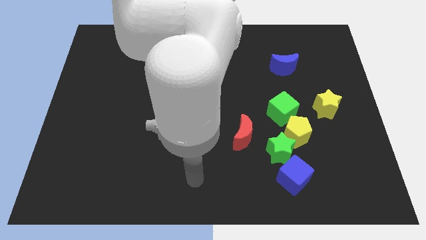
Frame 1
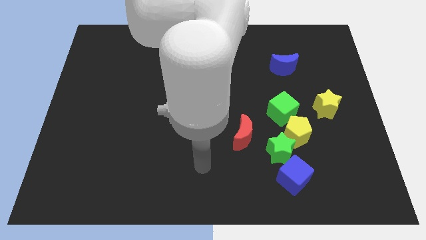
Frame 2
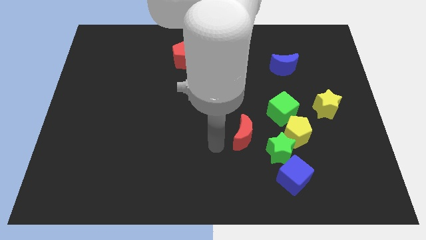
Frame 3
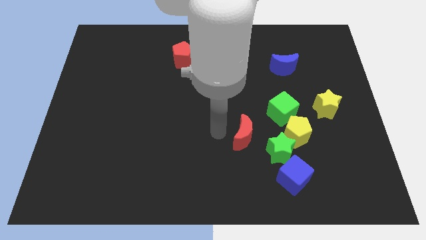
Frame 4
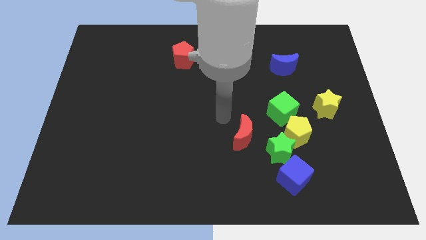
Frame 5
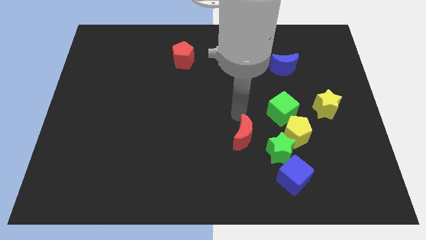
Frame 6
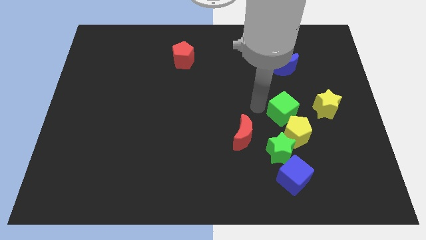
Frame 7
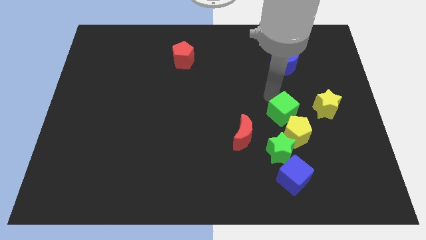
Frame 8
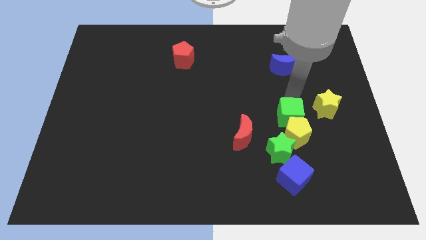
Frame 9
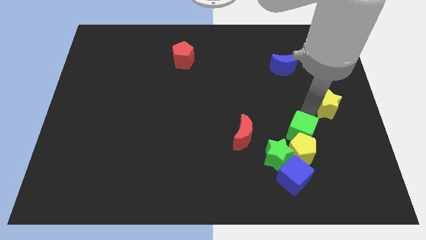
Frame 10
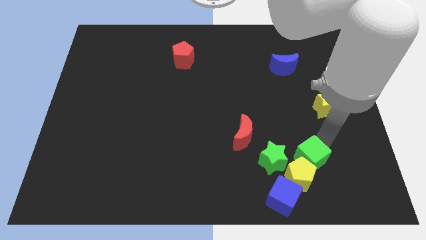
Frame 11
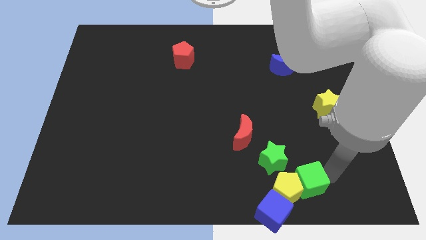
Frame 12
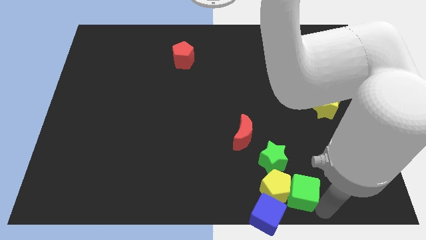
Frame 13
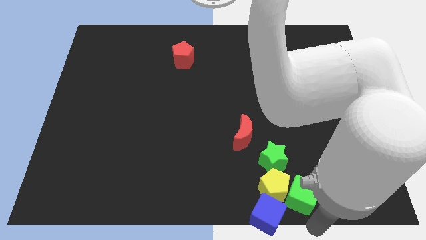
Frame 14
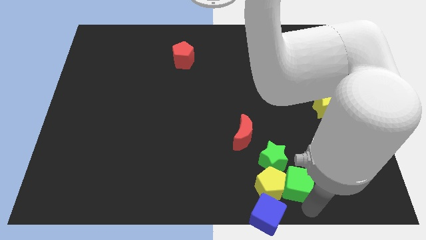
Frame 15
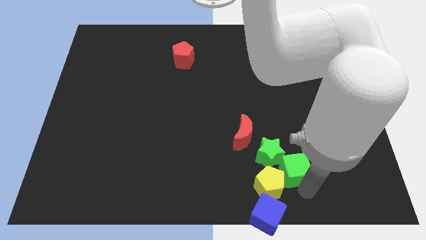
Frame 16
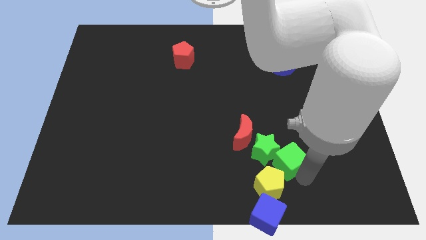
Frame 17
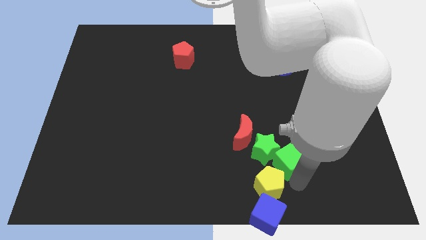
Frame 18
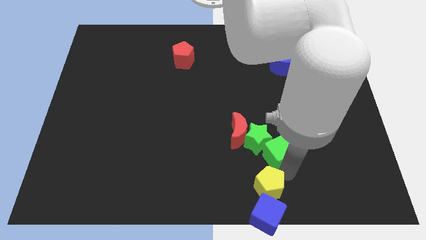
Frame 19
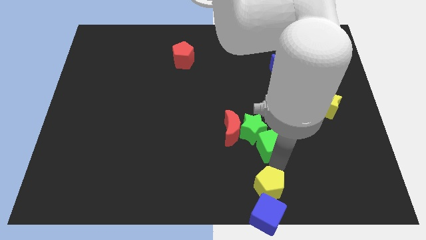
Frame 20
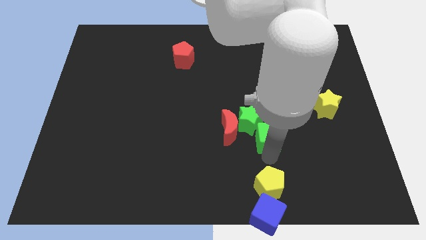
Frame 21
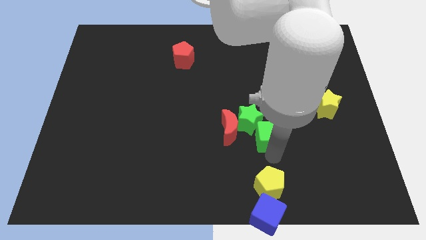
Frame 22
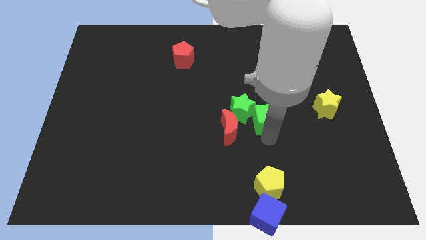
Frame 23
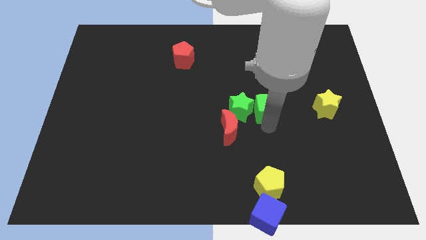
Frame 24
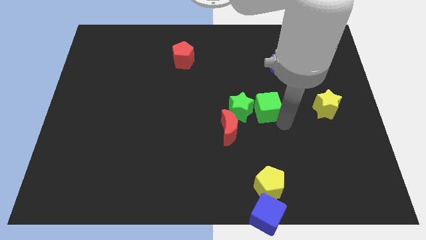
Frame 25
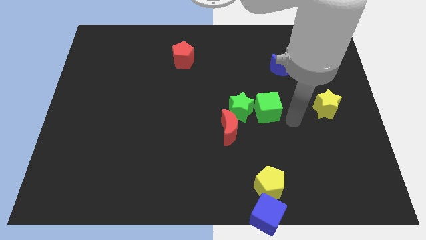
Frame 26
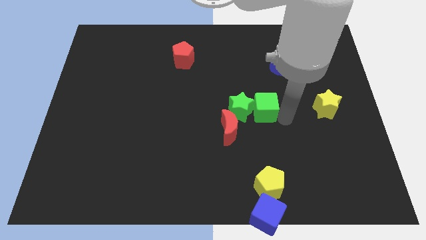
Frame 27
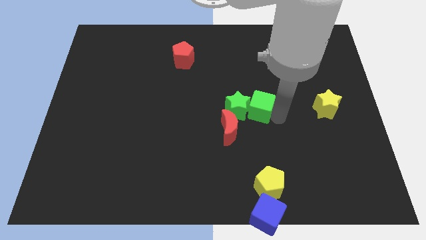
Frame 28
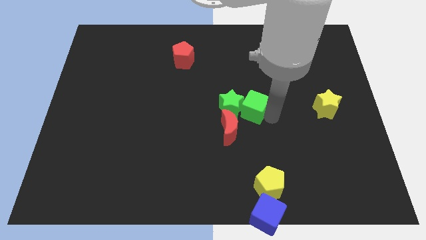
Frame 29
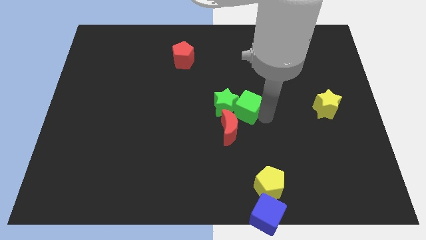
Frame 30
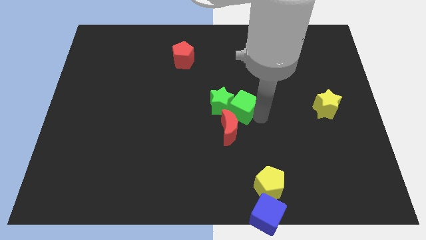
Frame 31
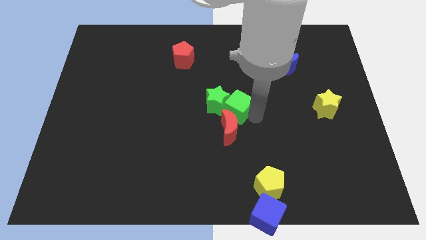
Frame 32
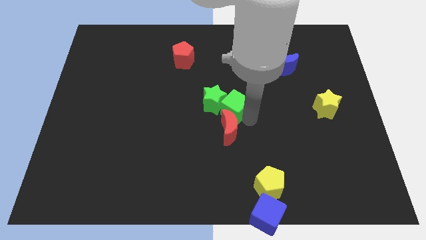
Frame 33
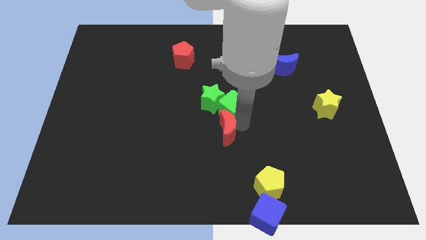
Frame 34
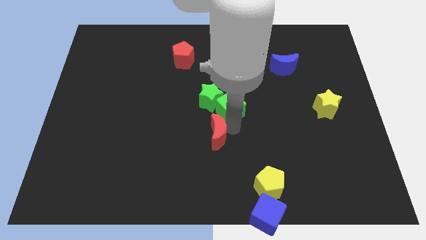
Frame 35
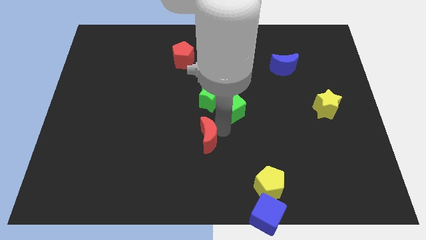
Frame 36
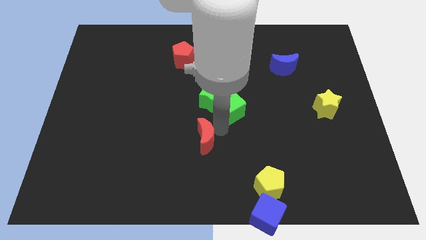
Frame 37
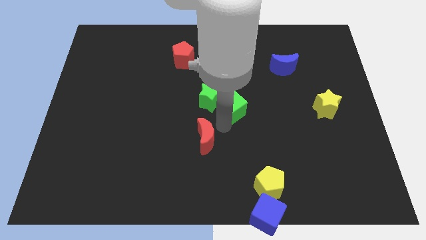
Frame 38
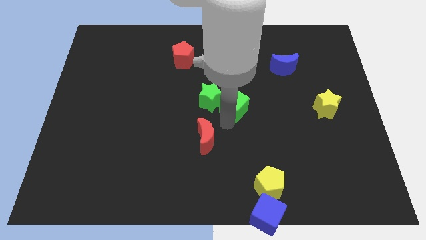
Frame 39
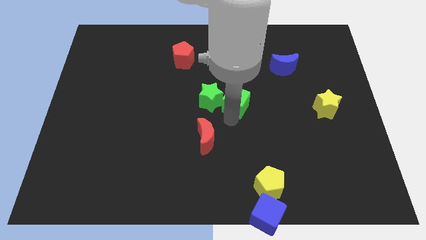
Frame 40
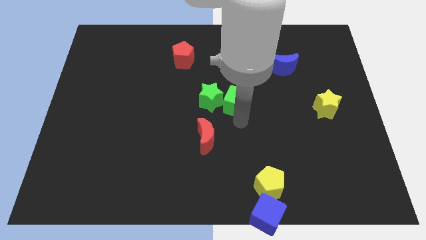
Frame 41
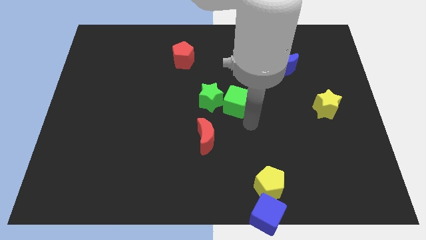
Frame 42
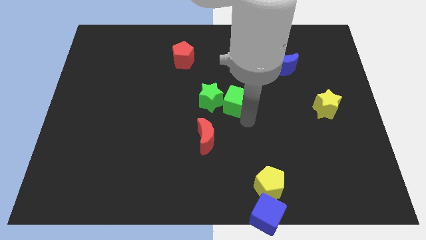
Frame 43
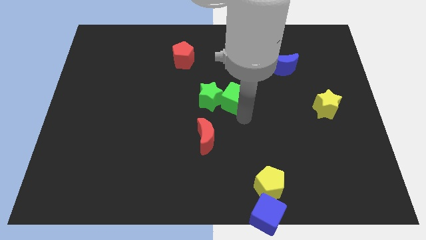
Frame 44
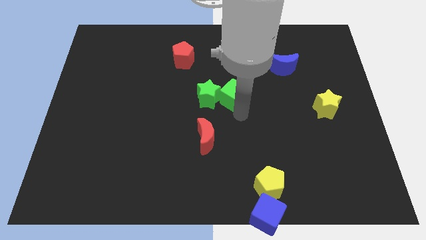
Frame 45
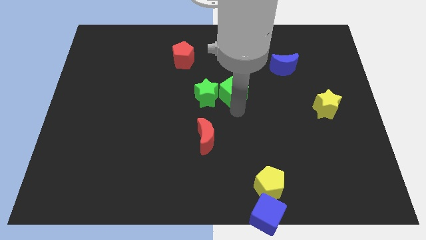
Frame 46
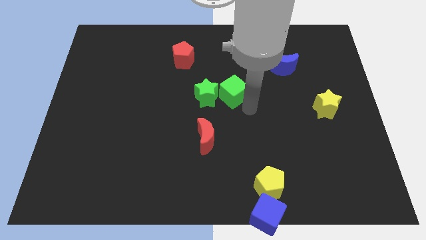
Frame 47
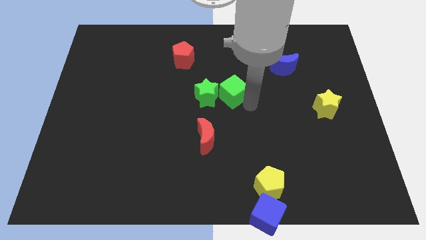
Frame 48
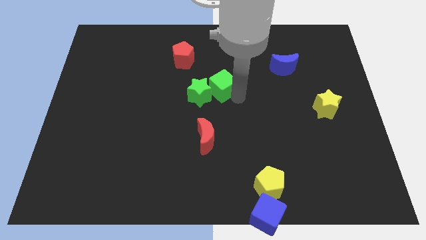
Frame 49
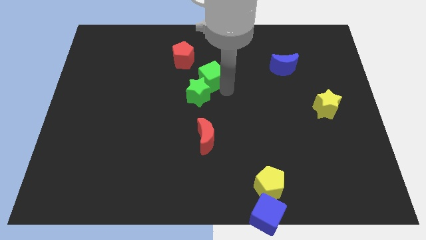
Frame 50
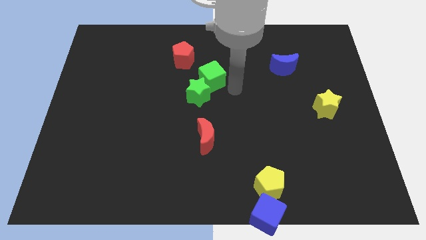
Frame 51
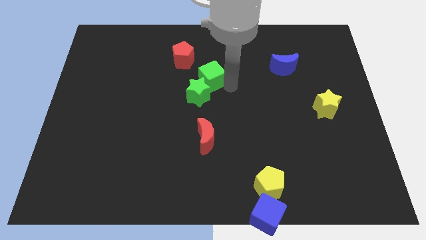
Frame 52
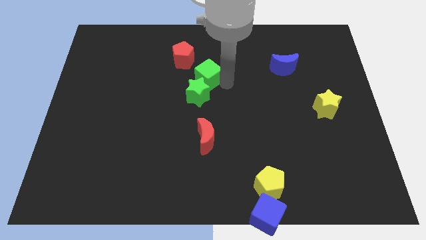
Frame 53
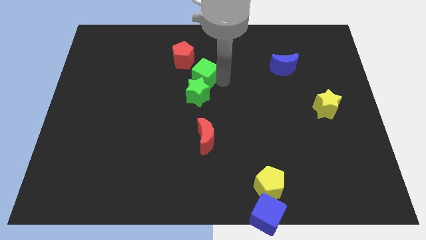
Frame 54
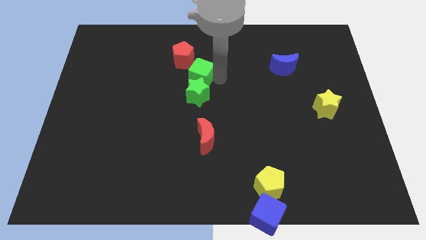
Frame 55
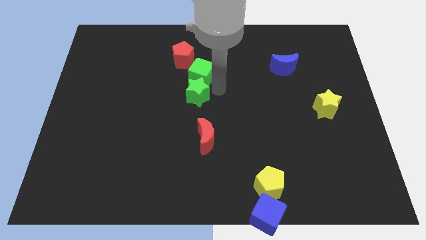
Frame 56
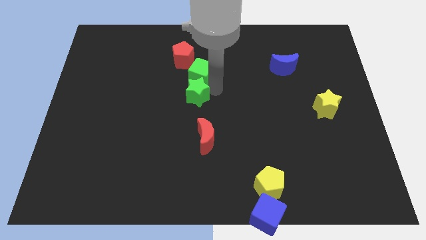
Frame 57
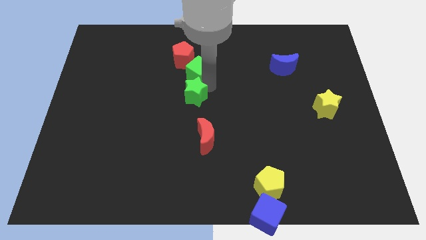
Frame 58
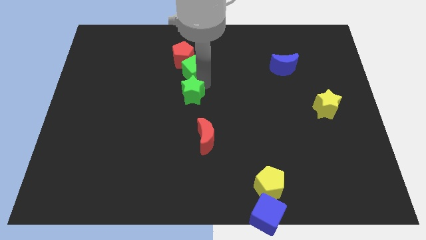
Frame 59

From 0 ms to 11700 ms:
push the green cube close to the red pentagon

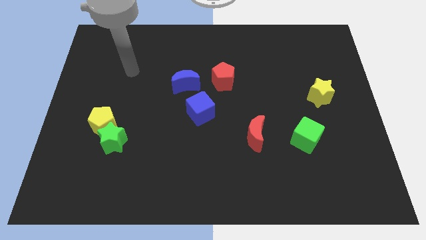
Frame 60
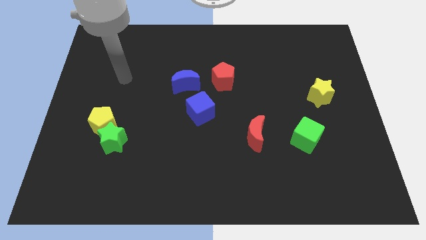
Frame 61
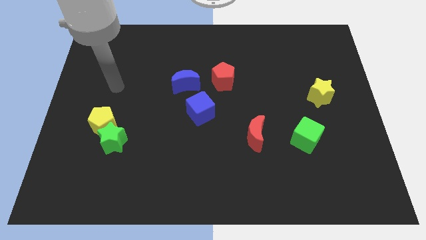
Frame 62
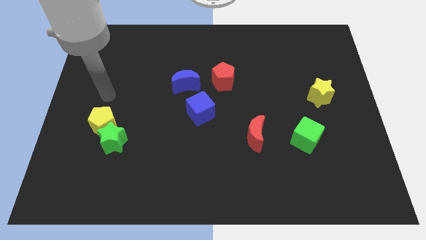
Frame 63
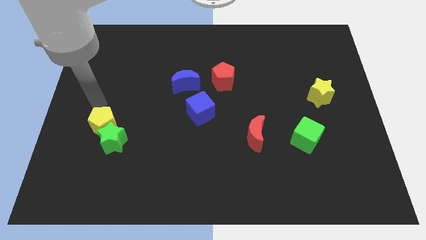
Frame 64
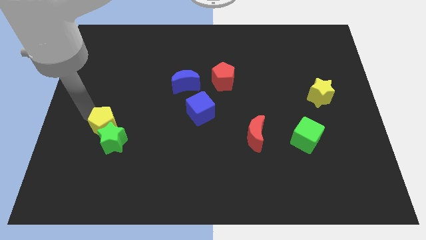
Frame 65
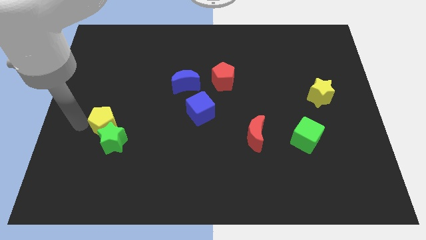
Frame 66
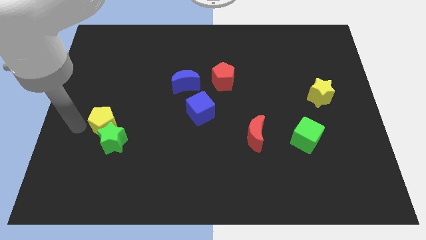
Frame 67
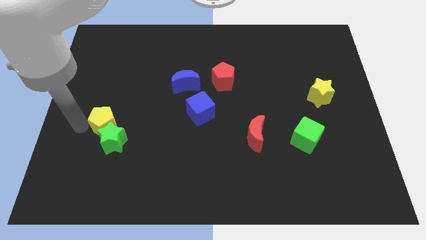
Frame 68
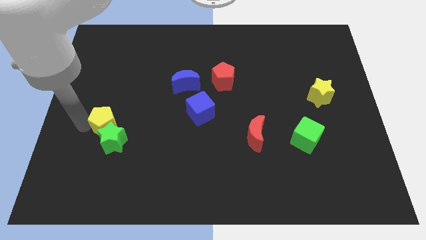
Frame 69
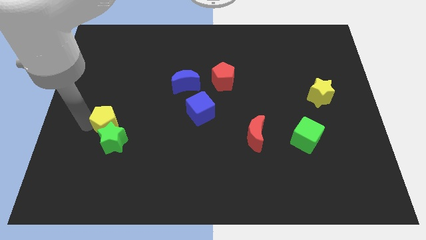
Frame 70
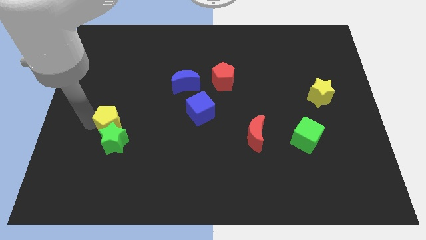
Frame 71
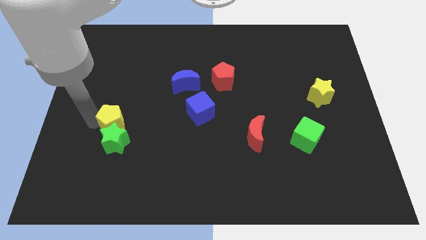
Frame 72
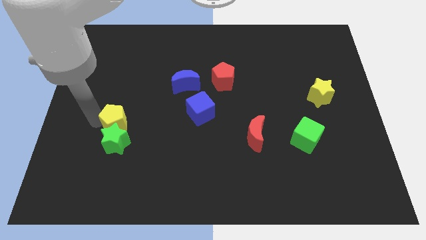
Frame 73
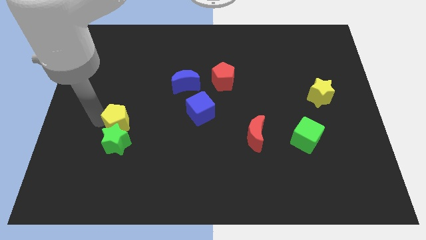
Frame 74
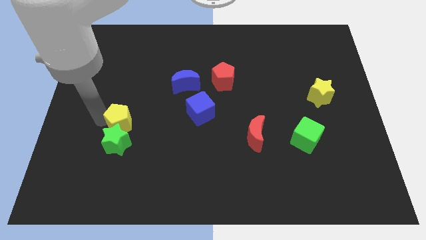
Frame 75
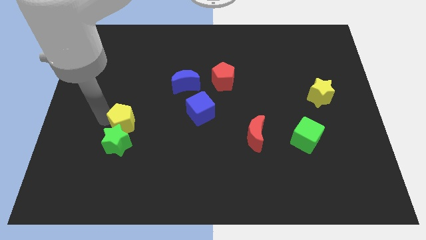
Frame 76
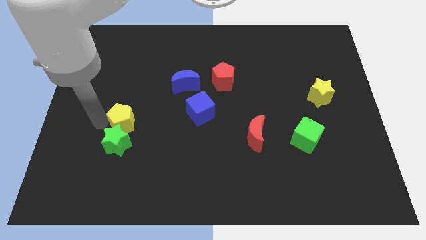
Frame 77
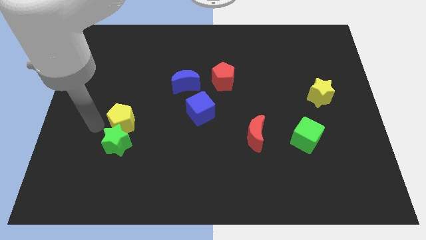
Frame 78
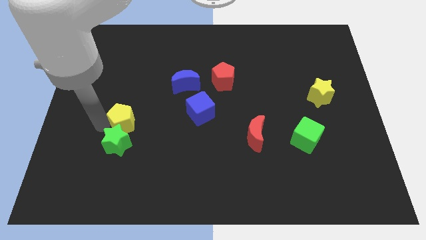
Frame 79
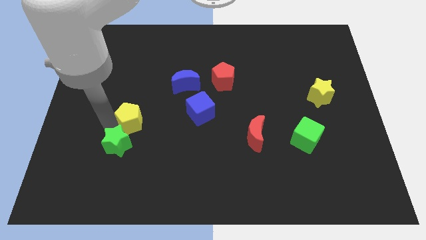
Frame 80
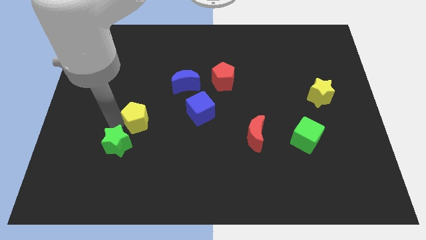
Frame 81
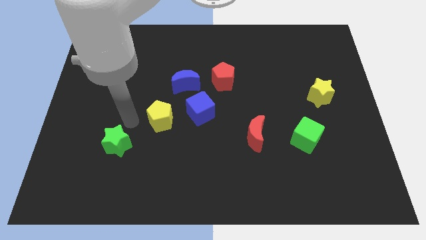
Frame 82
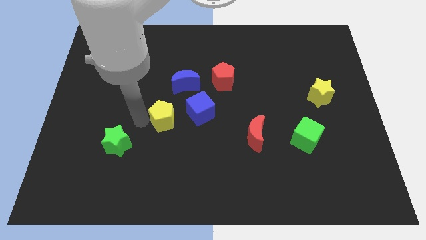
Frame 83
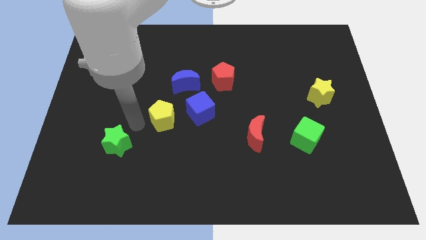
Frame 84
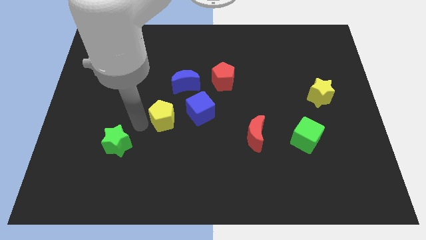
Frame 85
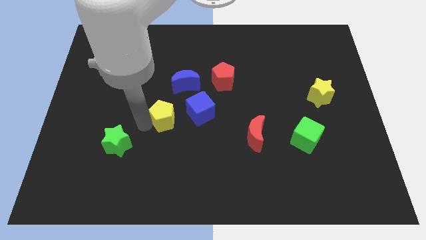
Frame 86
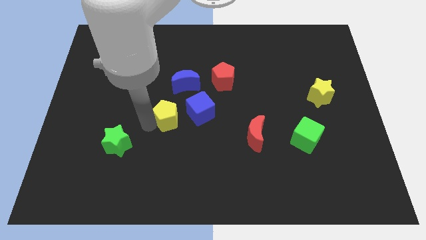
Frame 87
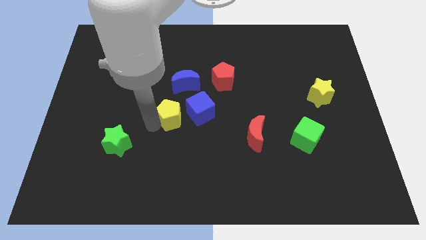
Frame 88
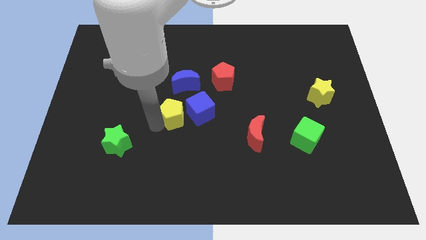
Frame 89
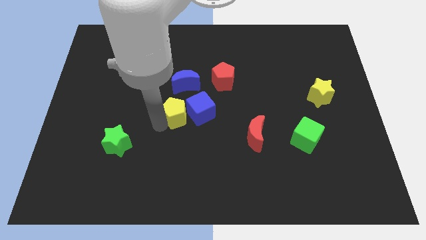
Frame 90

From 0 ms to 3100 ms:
move the yellow pentagon next to the blue cube
